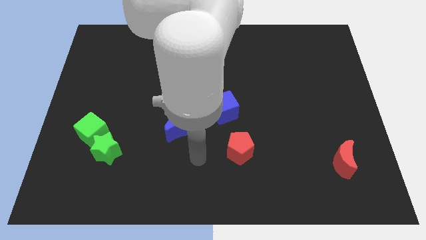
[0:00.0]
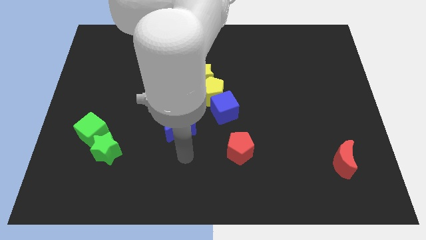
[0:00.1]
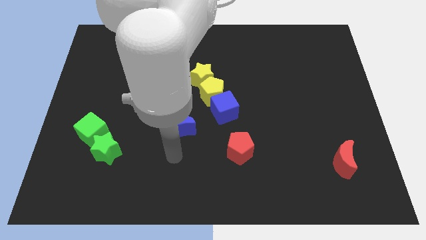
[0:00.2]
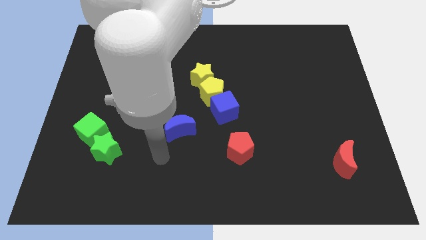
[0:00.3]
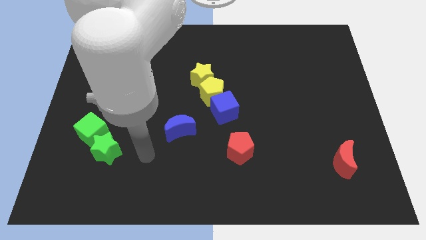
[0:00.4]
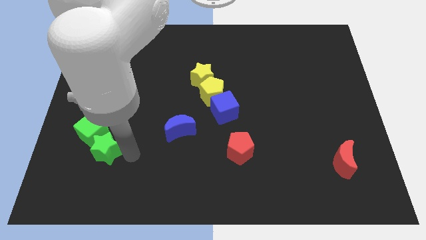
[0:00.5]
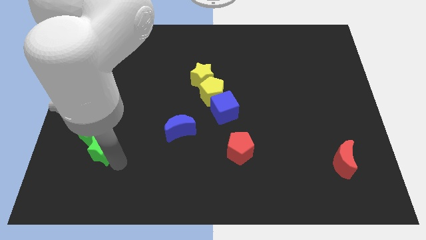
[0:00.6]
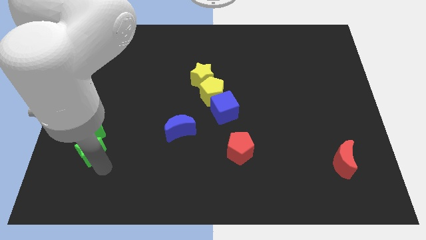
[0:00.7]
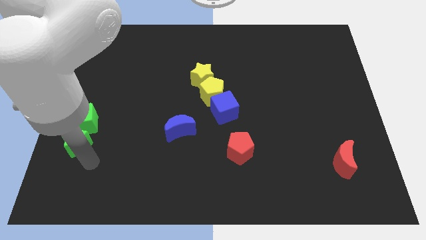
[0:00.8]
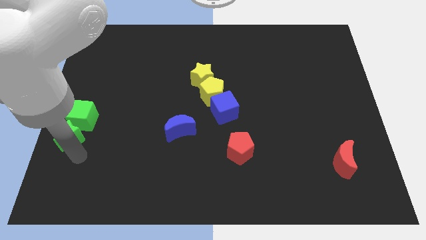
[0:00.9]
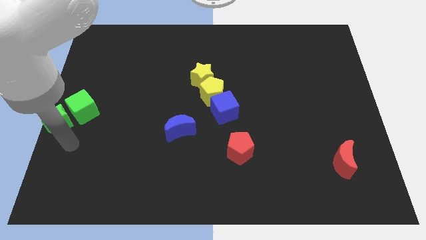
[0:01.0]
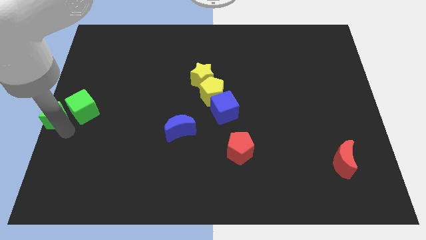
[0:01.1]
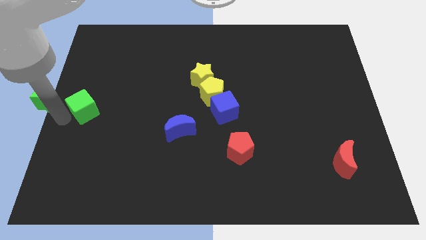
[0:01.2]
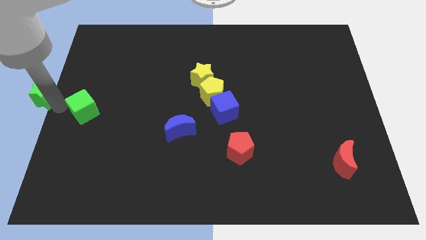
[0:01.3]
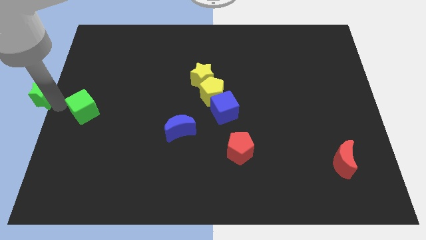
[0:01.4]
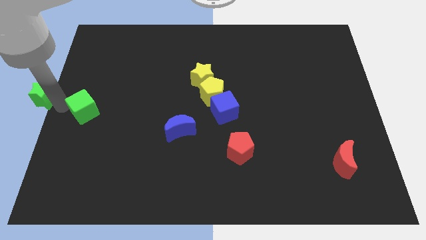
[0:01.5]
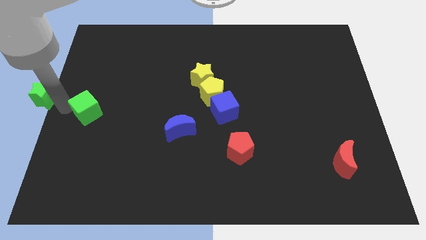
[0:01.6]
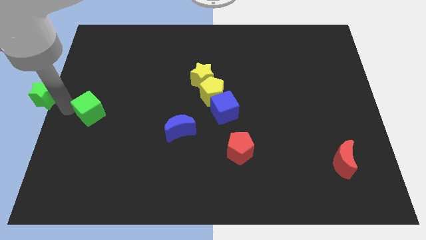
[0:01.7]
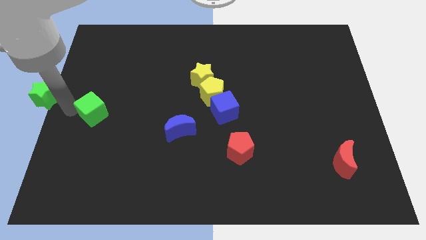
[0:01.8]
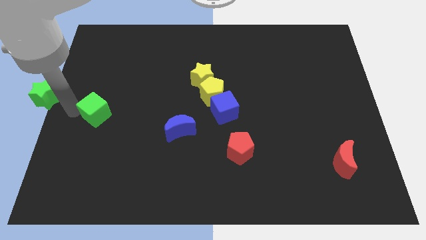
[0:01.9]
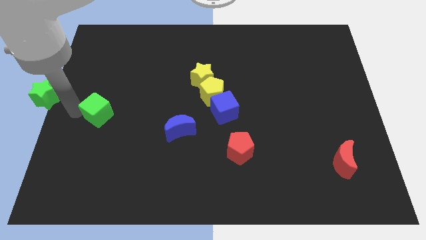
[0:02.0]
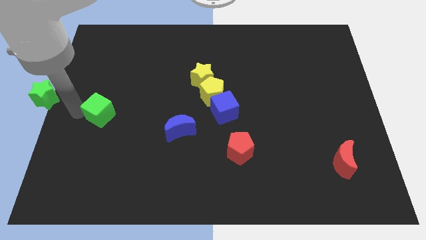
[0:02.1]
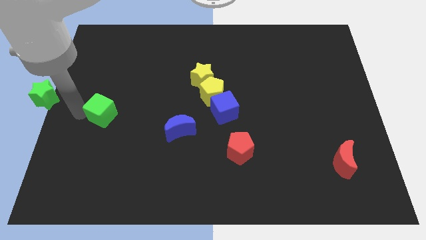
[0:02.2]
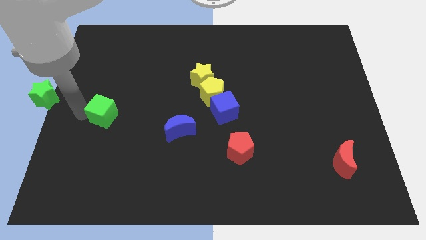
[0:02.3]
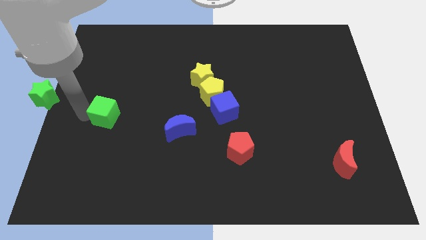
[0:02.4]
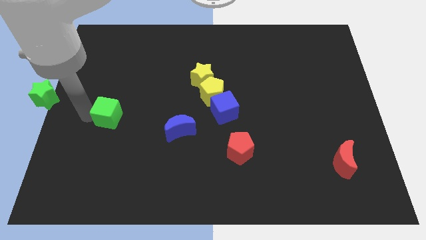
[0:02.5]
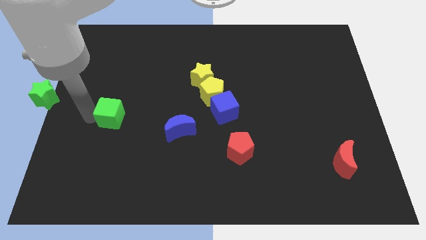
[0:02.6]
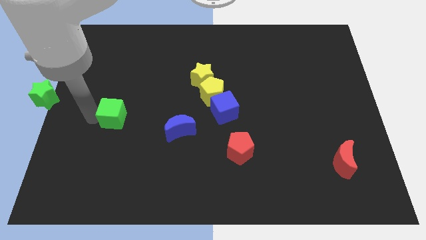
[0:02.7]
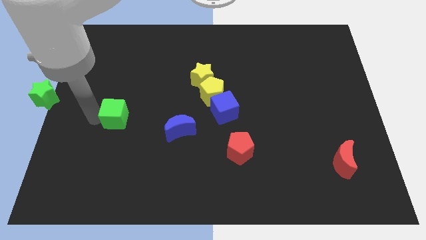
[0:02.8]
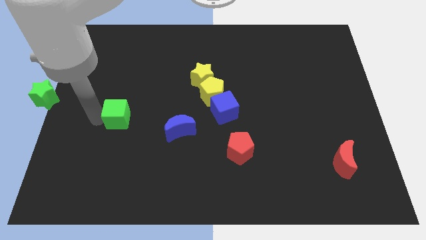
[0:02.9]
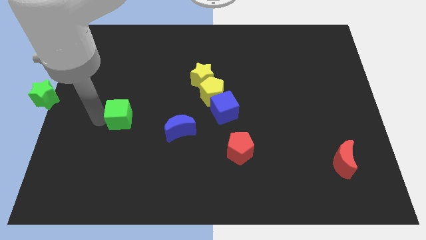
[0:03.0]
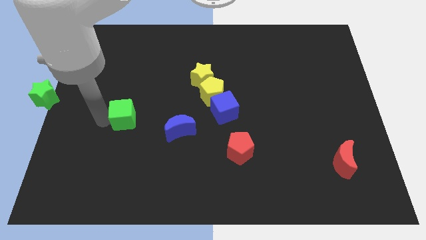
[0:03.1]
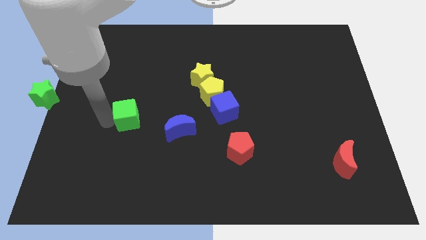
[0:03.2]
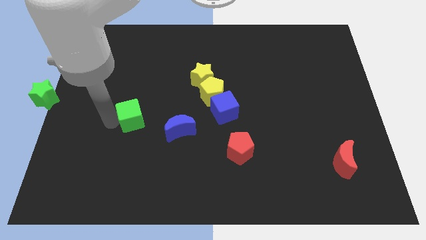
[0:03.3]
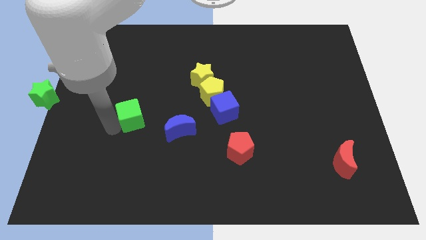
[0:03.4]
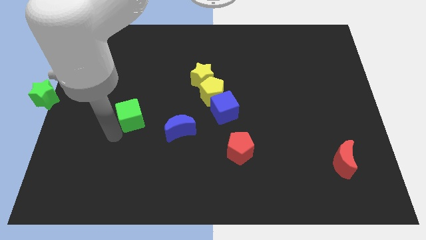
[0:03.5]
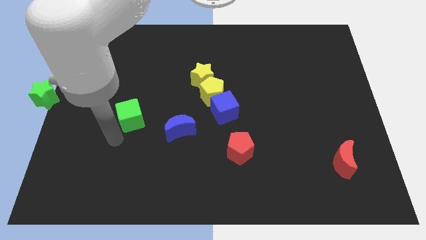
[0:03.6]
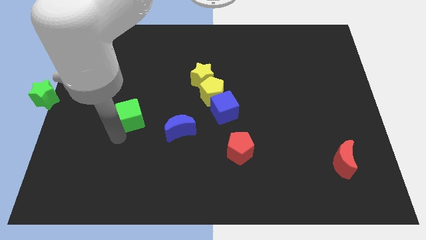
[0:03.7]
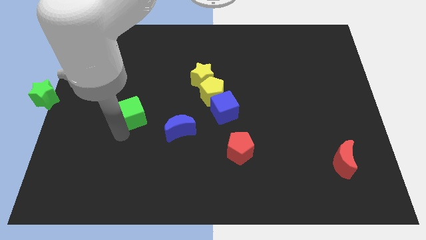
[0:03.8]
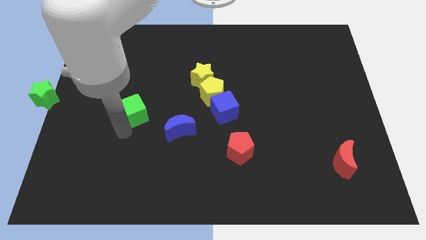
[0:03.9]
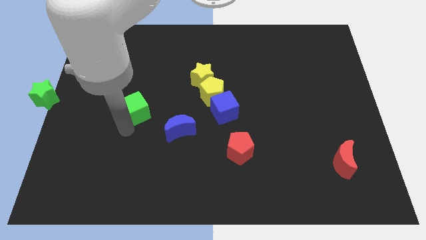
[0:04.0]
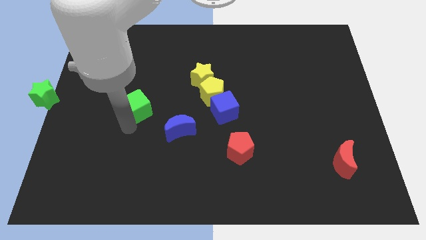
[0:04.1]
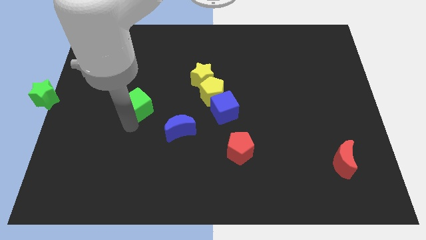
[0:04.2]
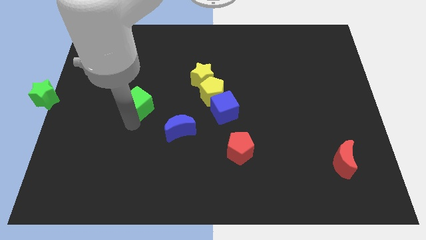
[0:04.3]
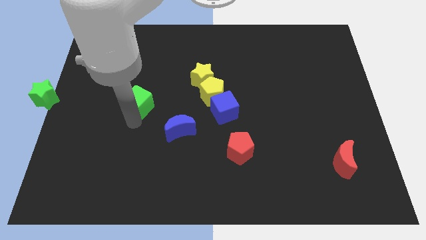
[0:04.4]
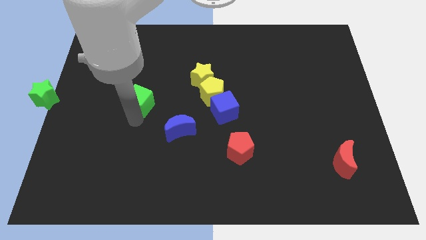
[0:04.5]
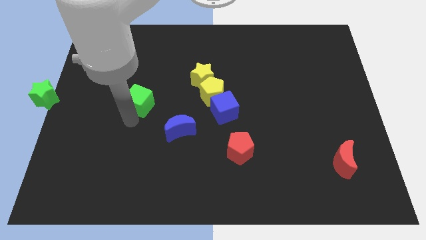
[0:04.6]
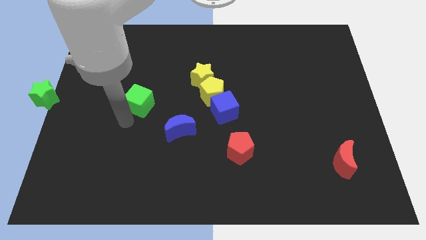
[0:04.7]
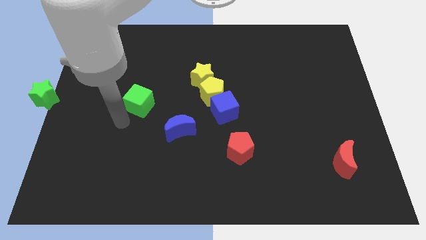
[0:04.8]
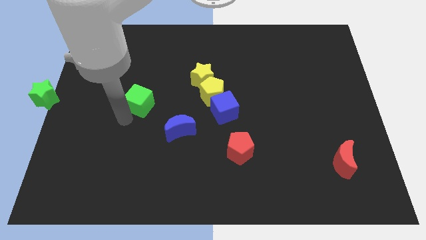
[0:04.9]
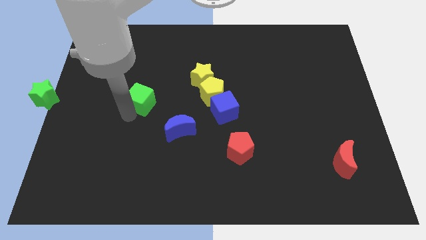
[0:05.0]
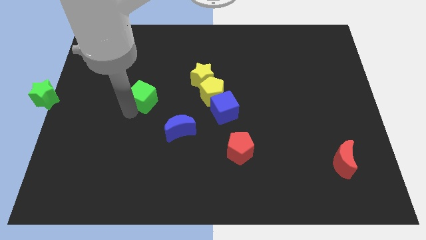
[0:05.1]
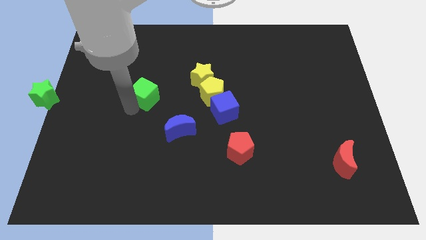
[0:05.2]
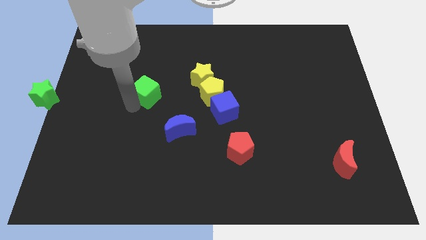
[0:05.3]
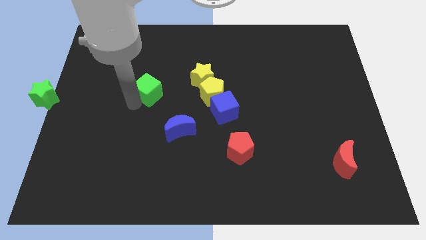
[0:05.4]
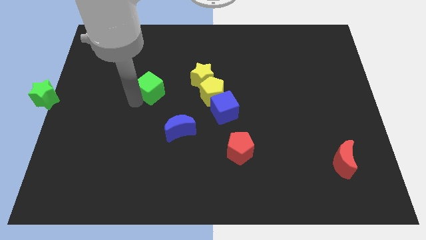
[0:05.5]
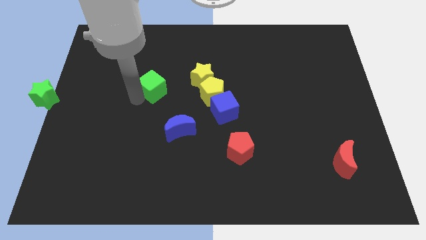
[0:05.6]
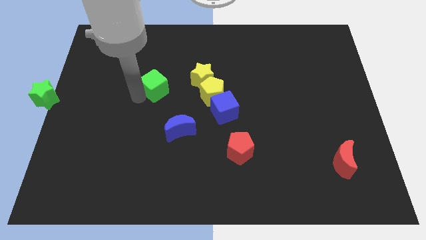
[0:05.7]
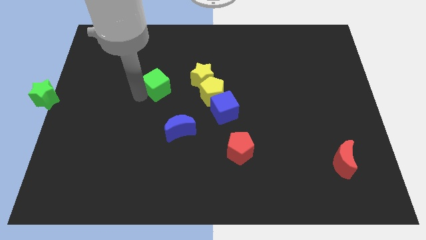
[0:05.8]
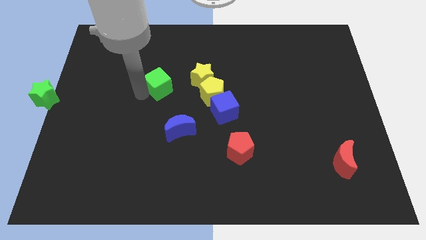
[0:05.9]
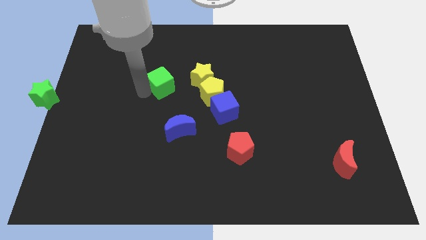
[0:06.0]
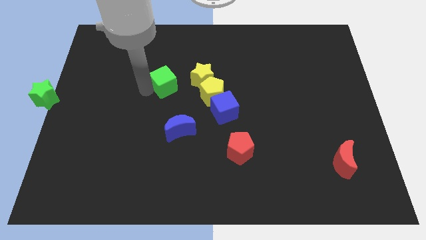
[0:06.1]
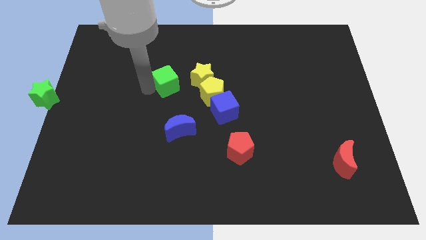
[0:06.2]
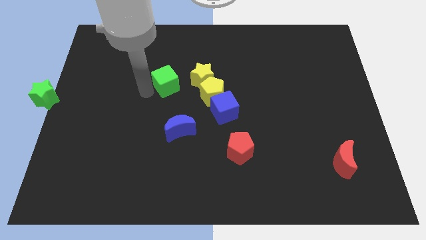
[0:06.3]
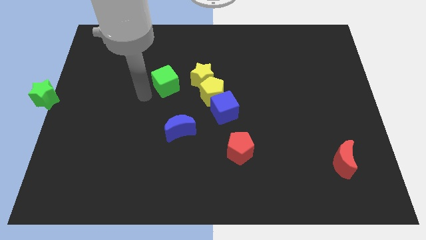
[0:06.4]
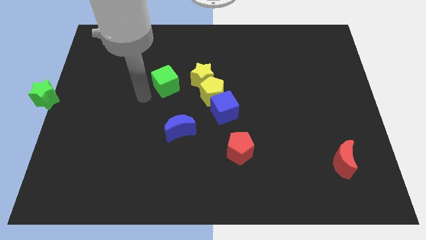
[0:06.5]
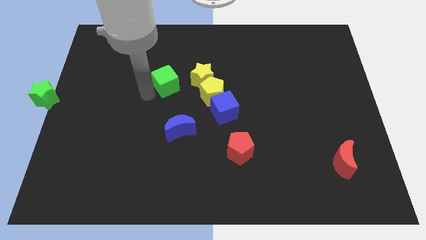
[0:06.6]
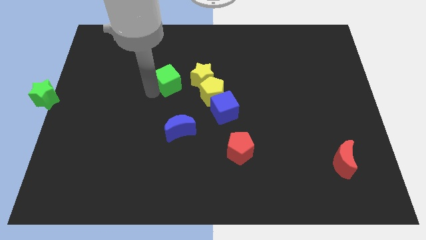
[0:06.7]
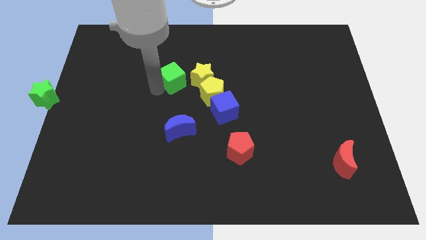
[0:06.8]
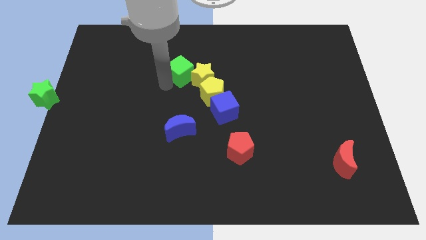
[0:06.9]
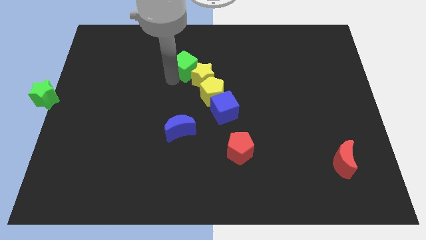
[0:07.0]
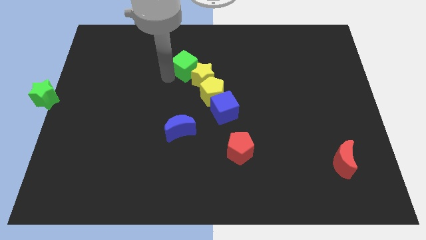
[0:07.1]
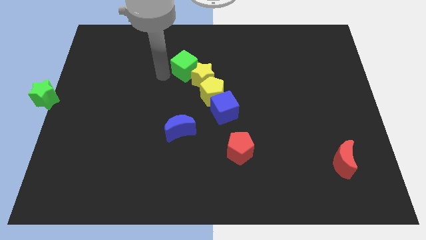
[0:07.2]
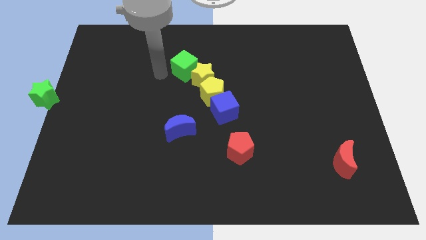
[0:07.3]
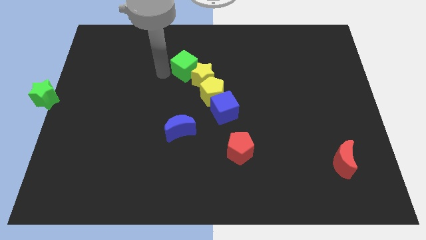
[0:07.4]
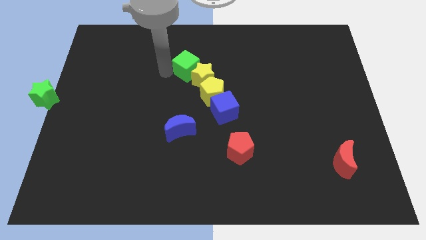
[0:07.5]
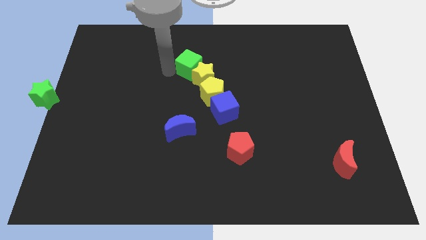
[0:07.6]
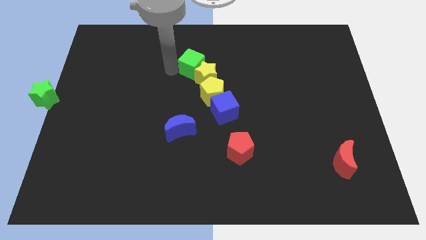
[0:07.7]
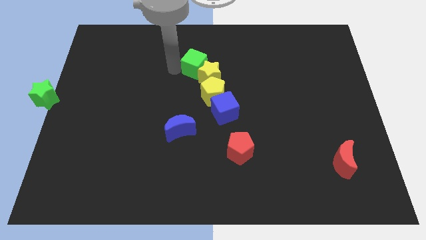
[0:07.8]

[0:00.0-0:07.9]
slide the green cube above the yellow pentagon
